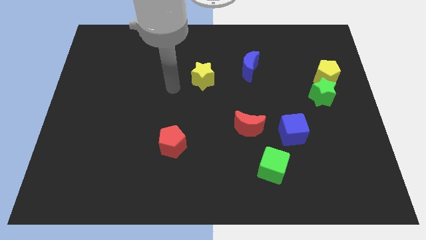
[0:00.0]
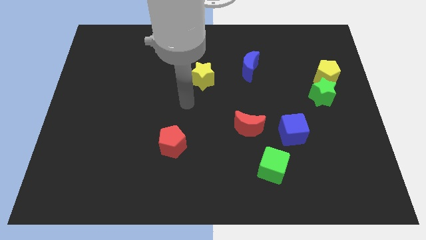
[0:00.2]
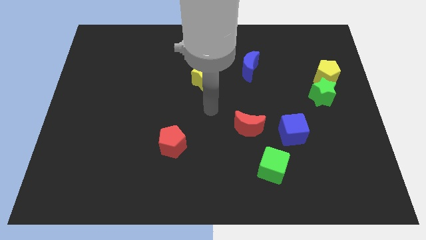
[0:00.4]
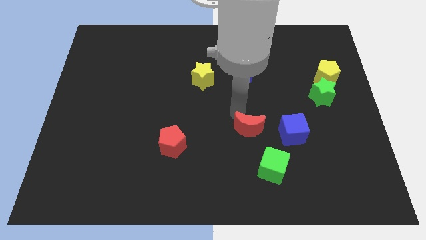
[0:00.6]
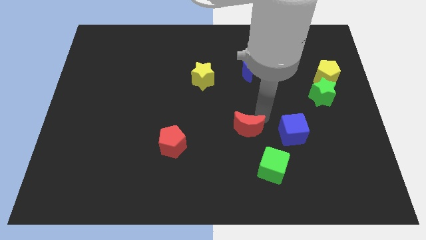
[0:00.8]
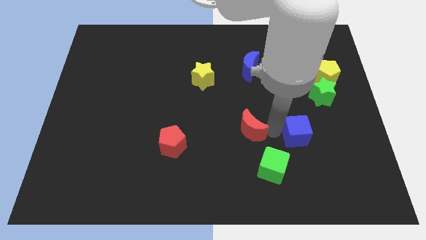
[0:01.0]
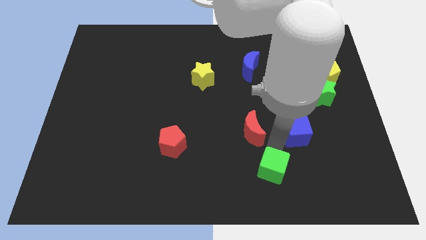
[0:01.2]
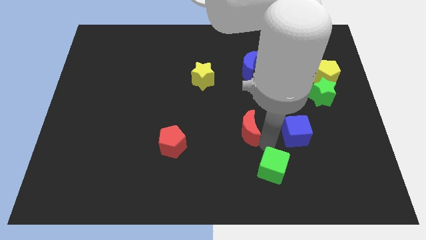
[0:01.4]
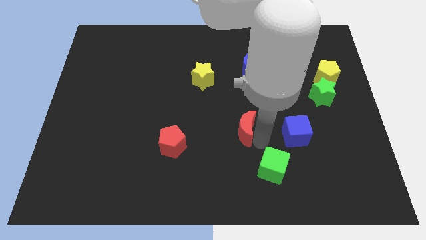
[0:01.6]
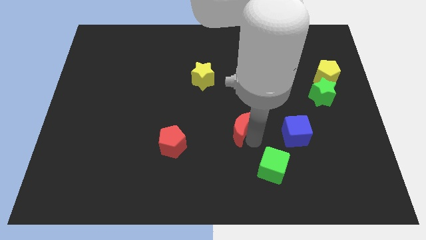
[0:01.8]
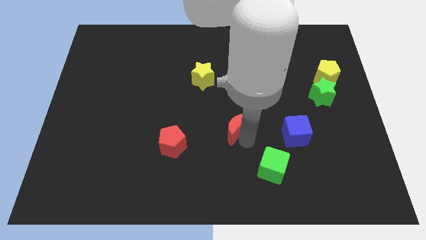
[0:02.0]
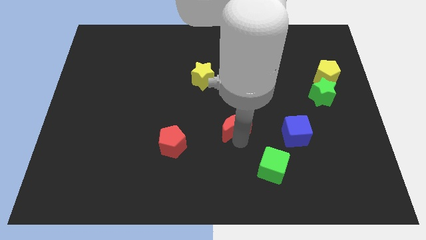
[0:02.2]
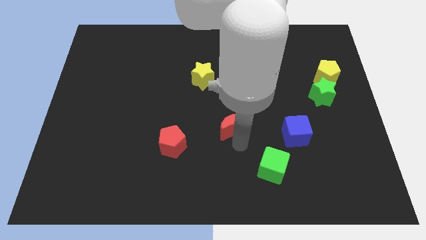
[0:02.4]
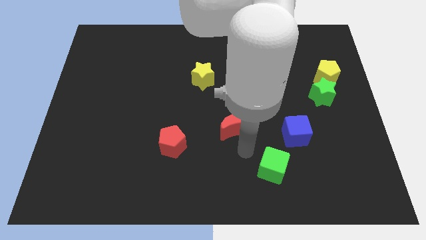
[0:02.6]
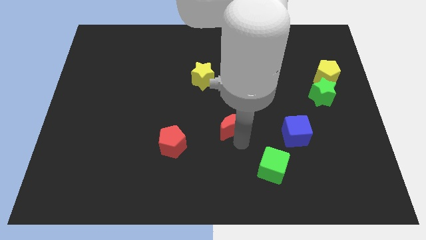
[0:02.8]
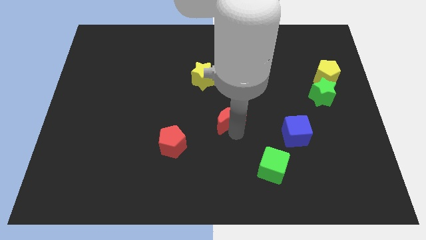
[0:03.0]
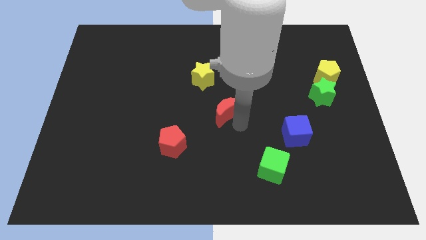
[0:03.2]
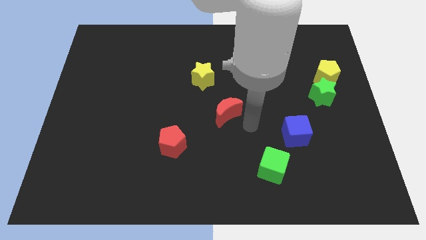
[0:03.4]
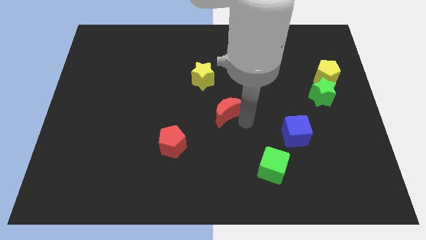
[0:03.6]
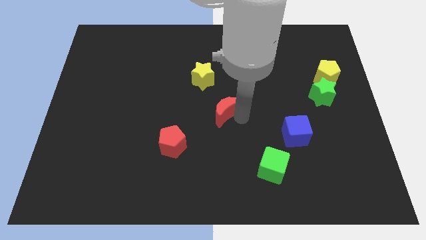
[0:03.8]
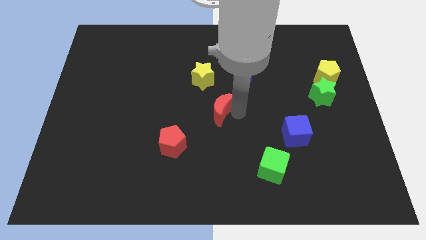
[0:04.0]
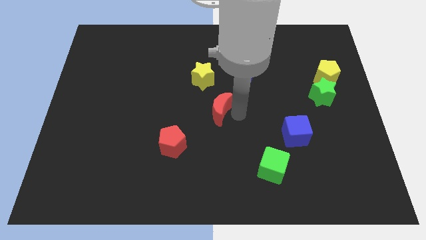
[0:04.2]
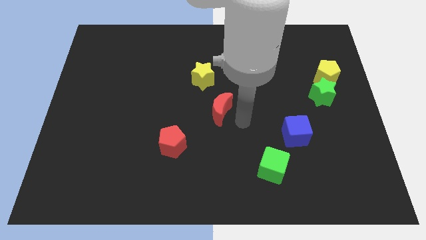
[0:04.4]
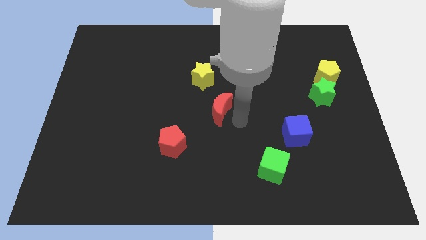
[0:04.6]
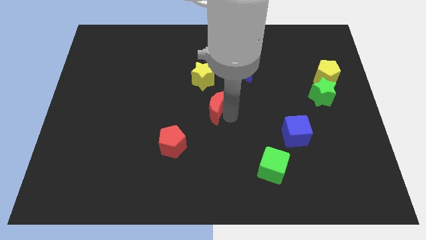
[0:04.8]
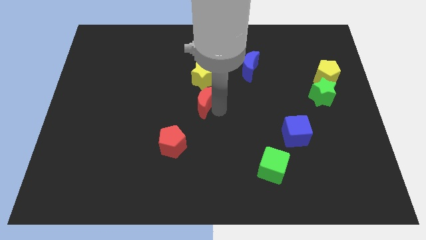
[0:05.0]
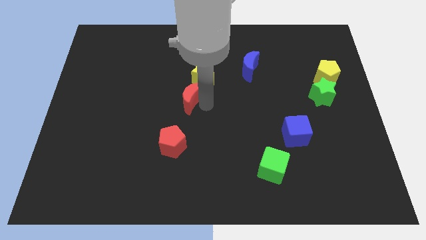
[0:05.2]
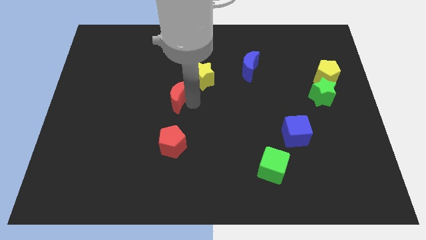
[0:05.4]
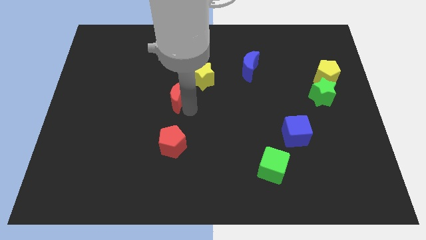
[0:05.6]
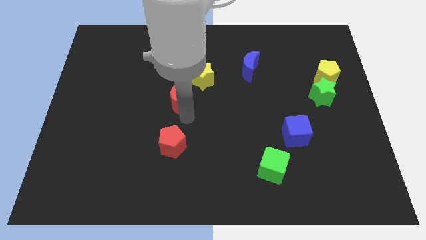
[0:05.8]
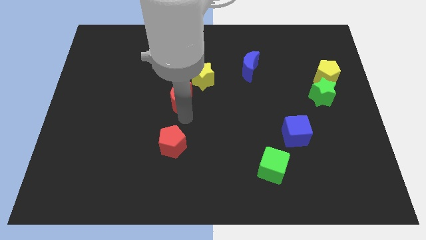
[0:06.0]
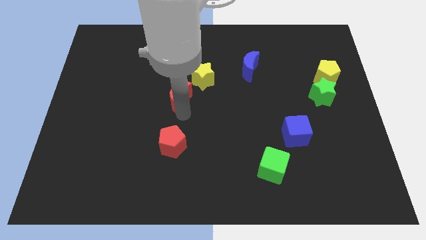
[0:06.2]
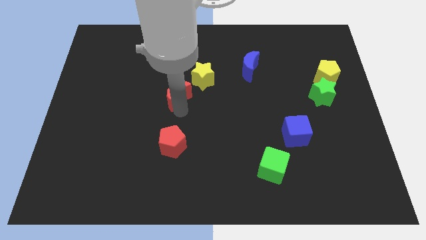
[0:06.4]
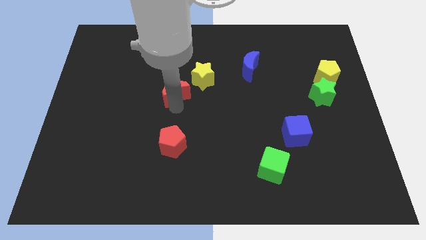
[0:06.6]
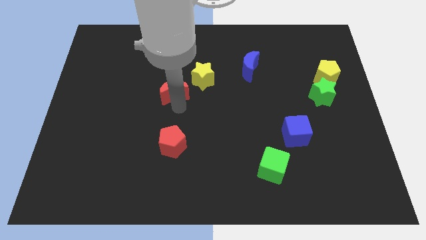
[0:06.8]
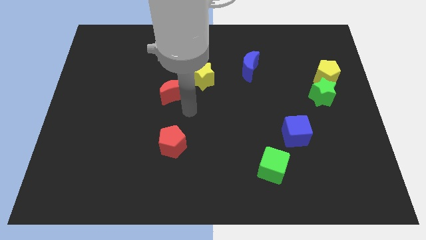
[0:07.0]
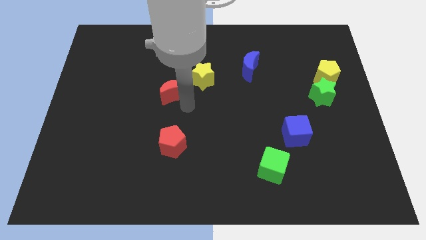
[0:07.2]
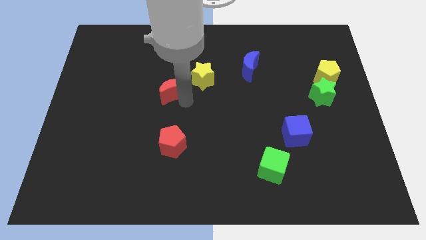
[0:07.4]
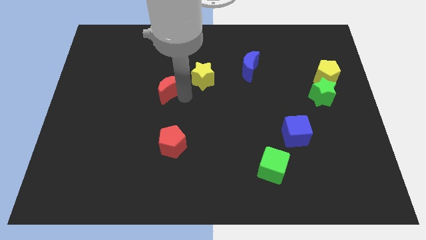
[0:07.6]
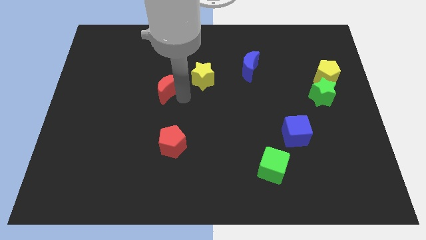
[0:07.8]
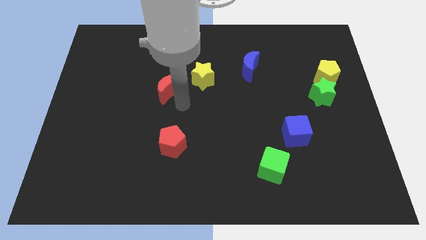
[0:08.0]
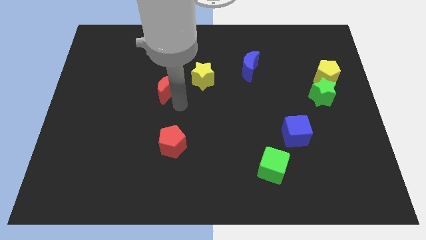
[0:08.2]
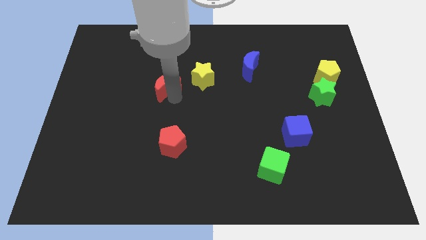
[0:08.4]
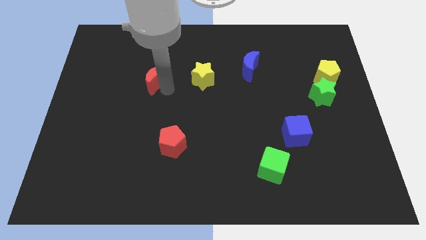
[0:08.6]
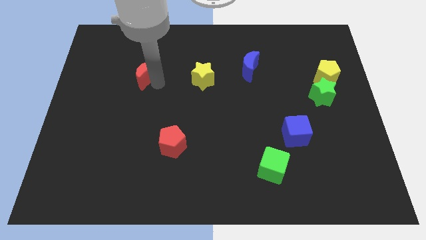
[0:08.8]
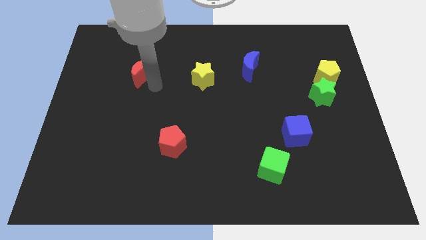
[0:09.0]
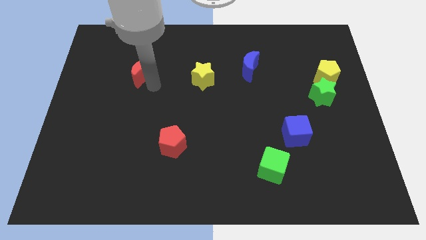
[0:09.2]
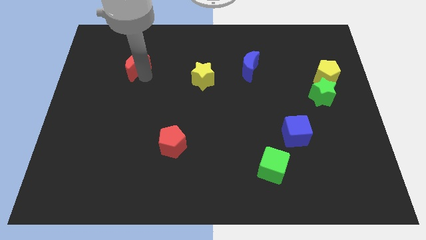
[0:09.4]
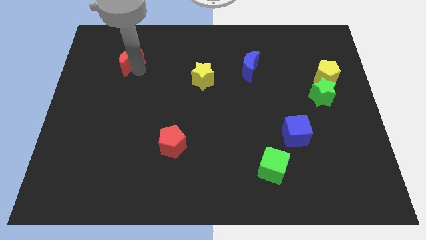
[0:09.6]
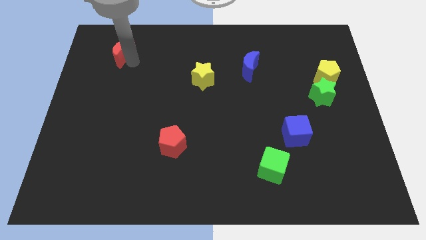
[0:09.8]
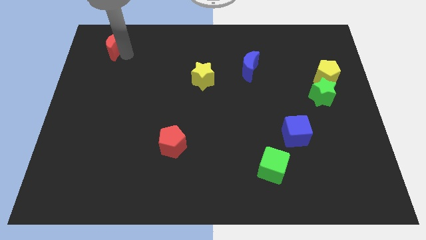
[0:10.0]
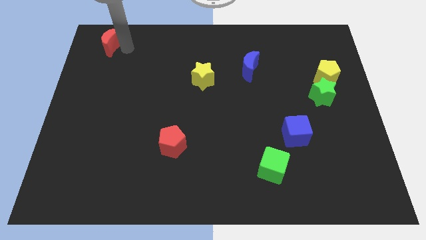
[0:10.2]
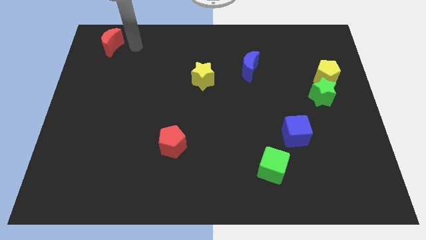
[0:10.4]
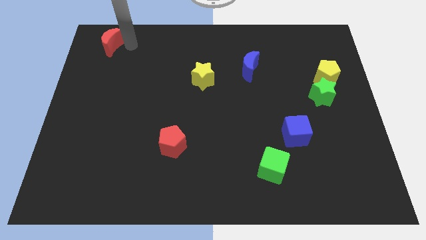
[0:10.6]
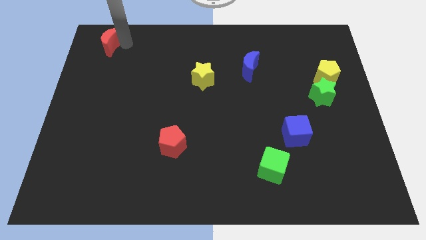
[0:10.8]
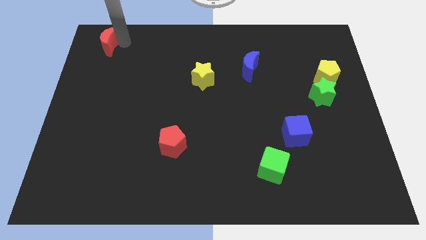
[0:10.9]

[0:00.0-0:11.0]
slide the red moon to the upper left corner

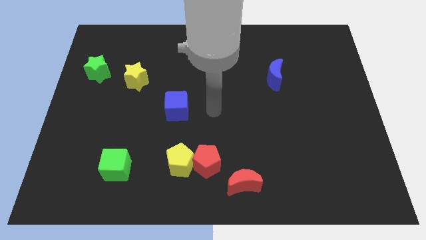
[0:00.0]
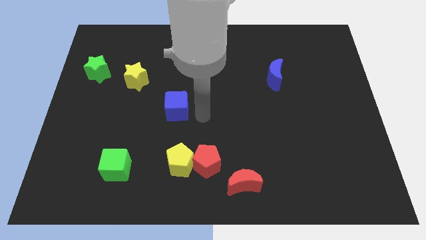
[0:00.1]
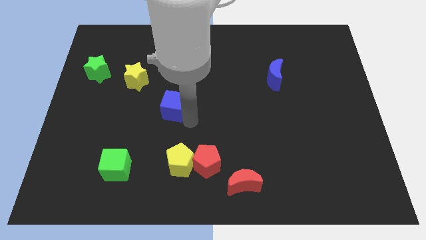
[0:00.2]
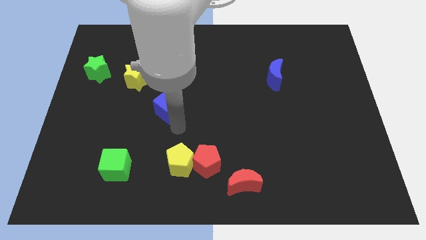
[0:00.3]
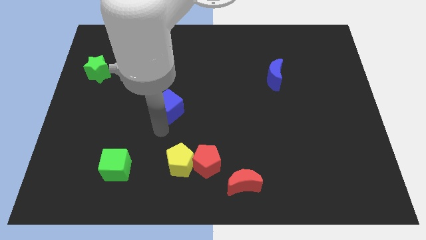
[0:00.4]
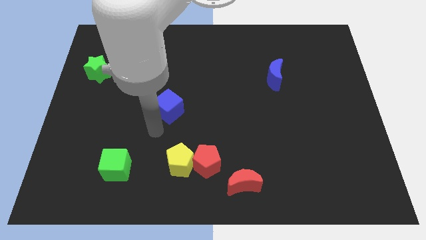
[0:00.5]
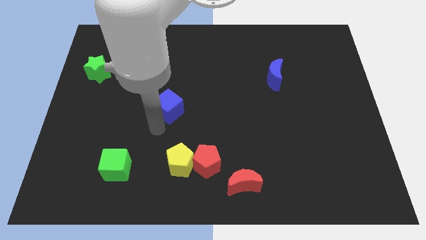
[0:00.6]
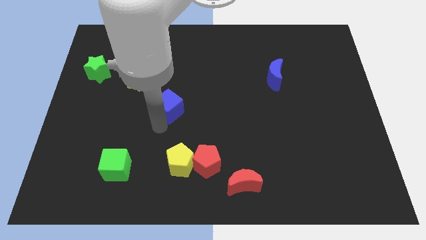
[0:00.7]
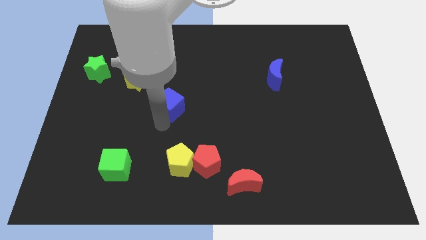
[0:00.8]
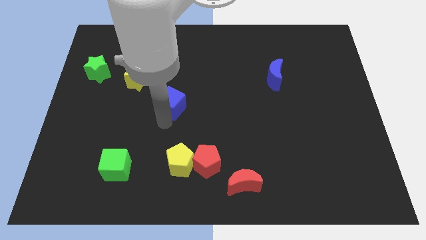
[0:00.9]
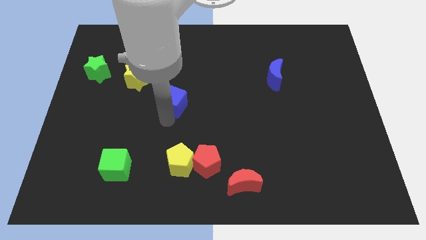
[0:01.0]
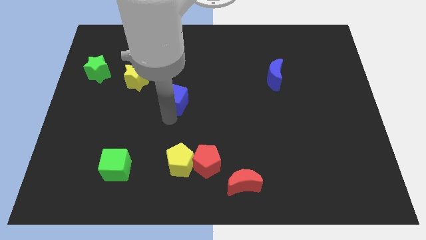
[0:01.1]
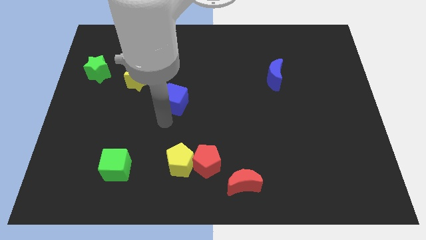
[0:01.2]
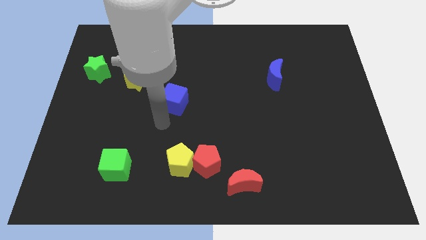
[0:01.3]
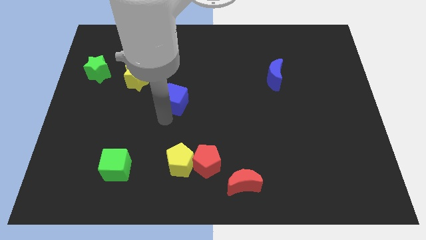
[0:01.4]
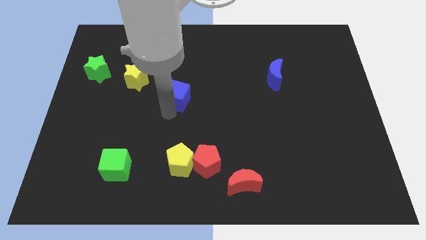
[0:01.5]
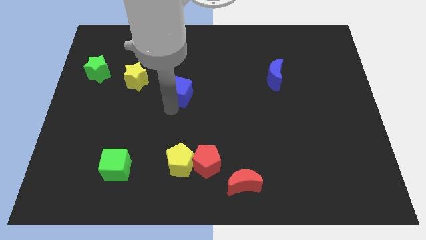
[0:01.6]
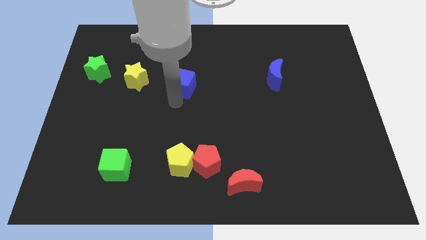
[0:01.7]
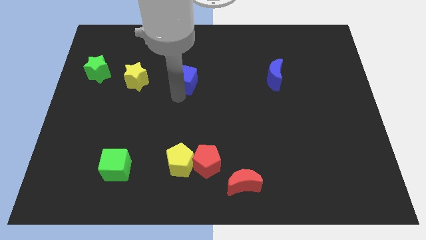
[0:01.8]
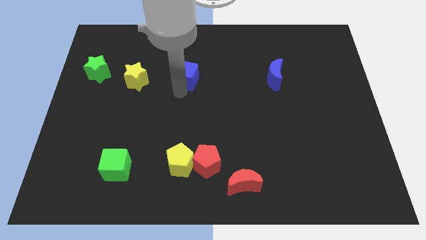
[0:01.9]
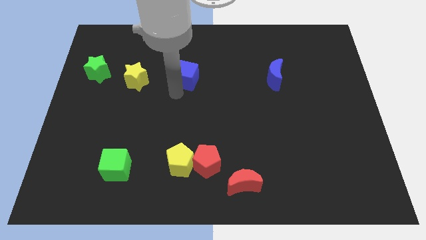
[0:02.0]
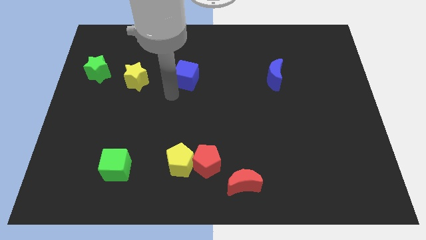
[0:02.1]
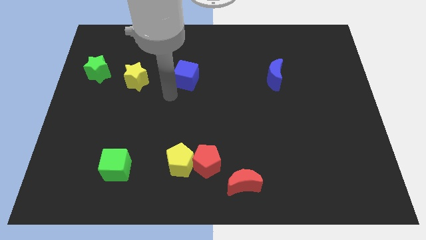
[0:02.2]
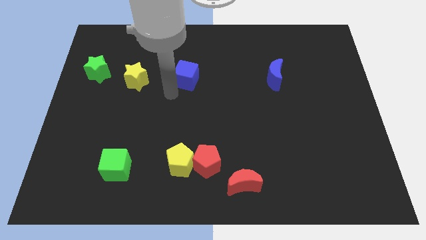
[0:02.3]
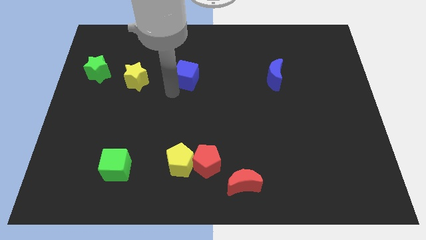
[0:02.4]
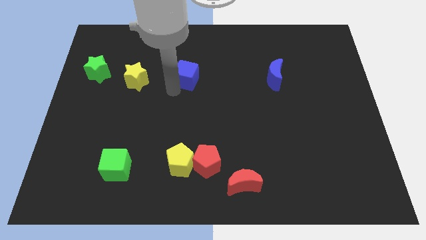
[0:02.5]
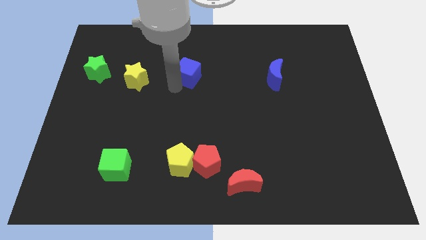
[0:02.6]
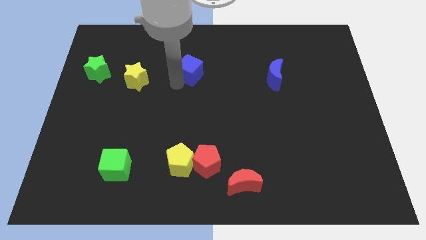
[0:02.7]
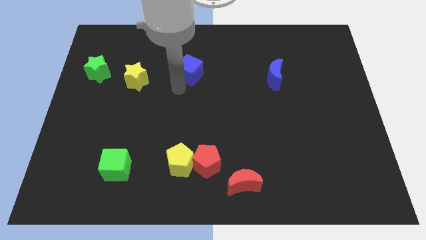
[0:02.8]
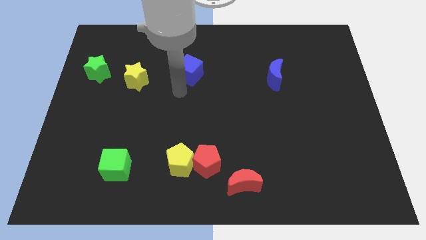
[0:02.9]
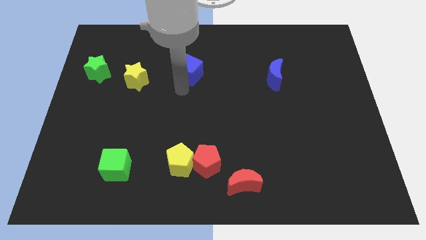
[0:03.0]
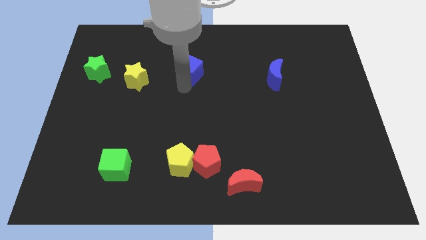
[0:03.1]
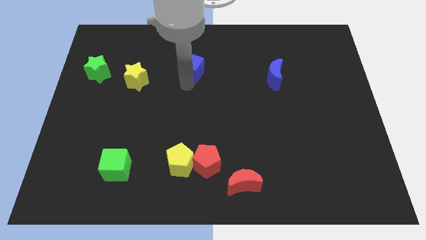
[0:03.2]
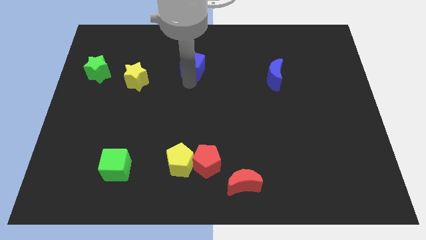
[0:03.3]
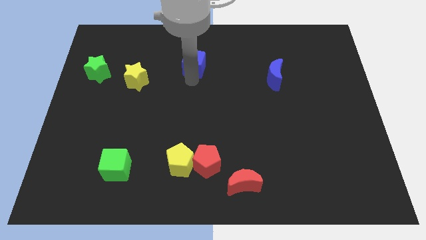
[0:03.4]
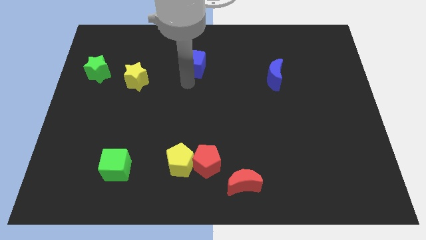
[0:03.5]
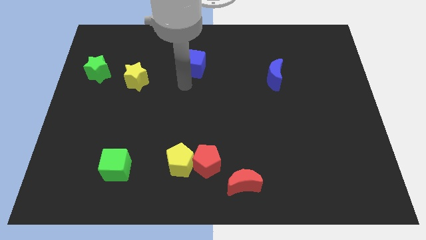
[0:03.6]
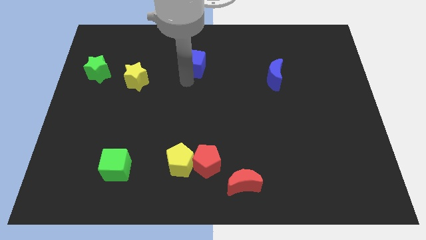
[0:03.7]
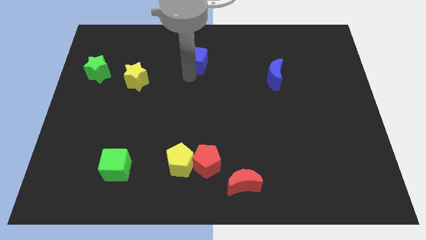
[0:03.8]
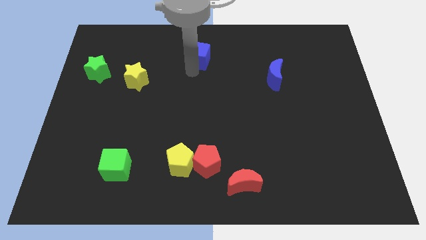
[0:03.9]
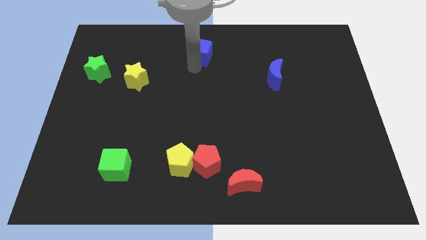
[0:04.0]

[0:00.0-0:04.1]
put the blue cube to the top
